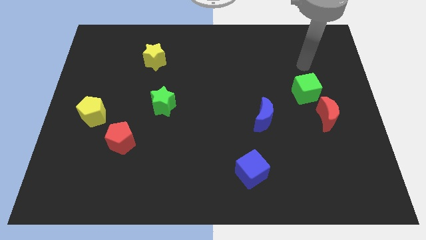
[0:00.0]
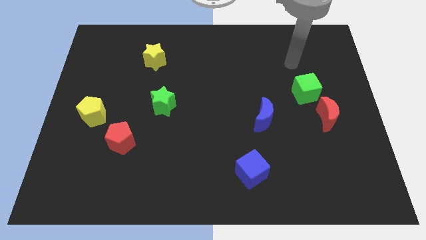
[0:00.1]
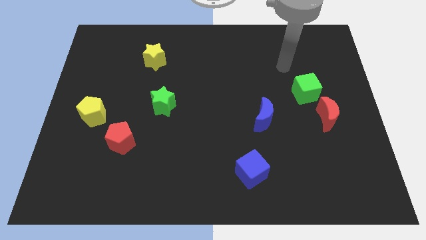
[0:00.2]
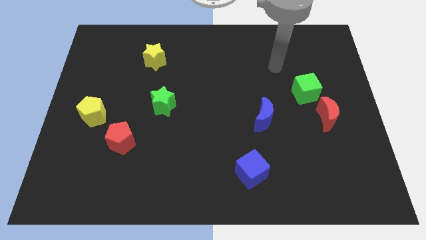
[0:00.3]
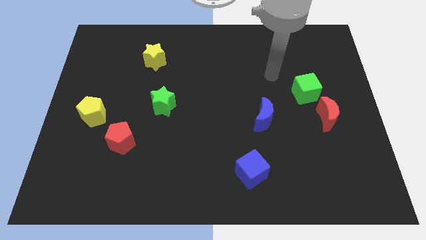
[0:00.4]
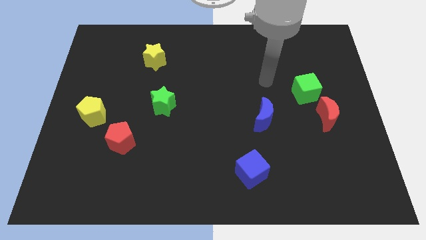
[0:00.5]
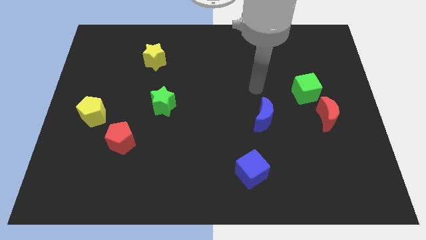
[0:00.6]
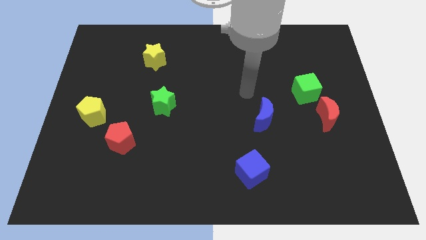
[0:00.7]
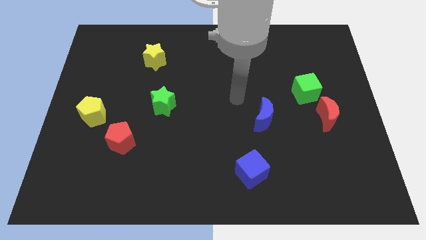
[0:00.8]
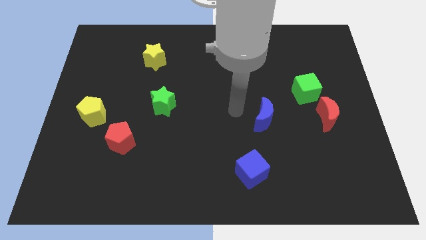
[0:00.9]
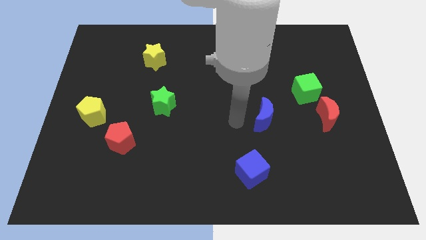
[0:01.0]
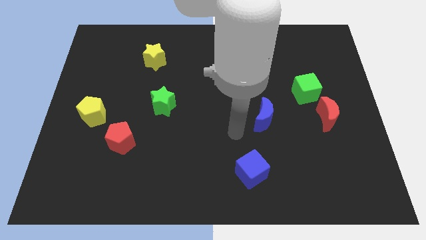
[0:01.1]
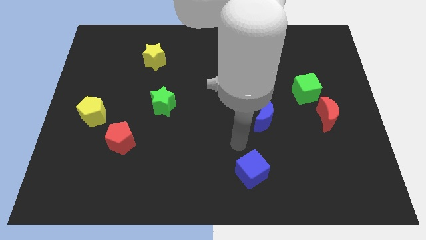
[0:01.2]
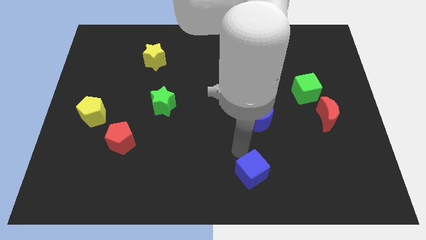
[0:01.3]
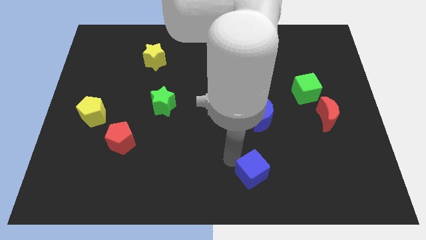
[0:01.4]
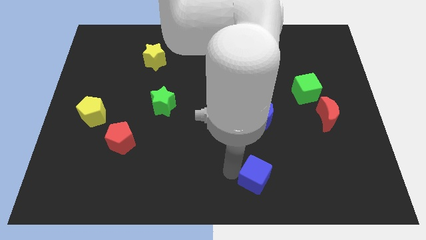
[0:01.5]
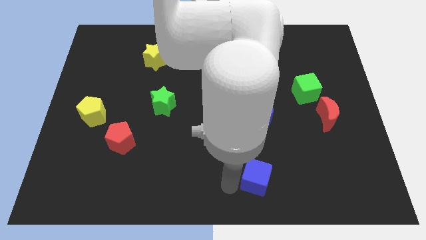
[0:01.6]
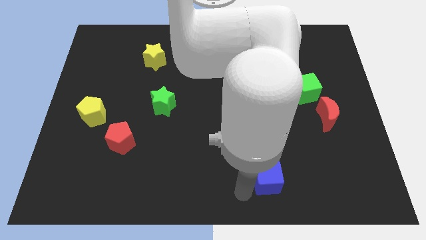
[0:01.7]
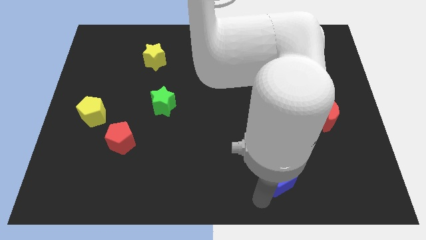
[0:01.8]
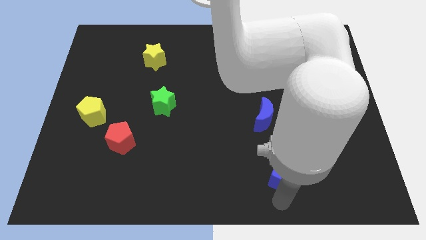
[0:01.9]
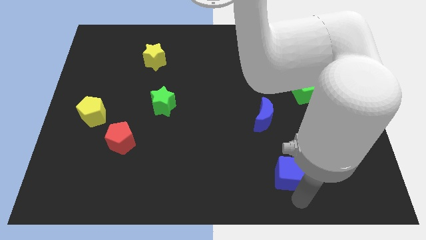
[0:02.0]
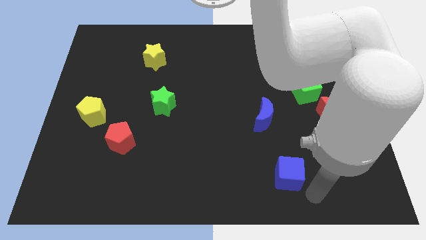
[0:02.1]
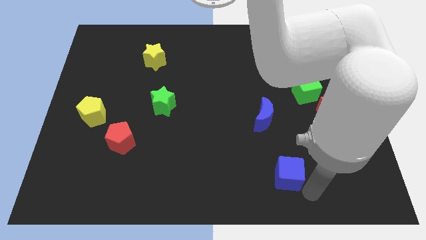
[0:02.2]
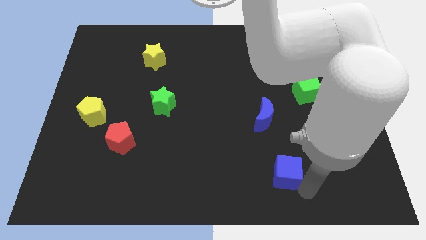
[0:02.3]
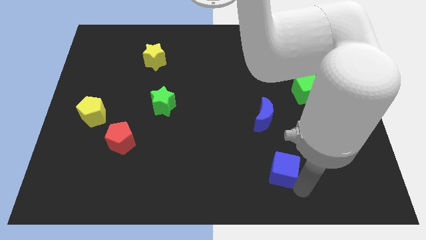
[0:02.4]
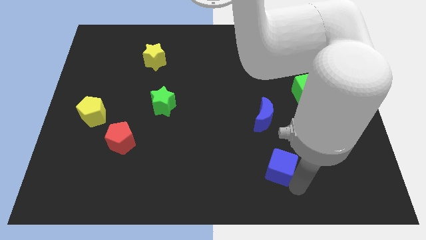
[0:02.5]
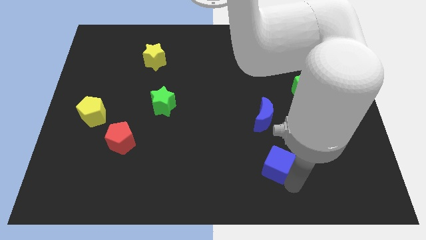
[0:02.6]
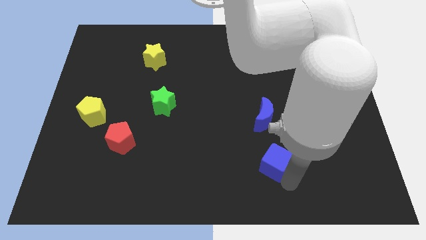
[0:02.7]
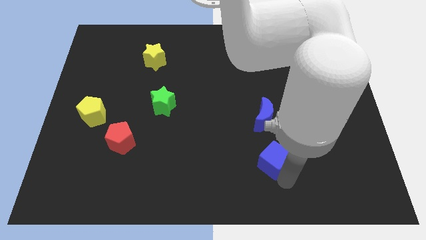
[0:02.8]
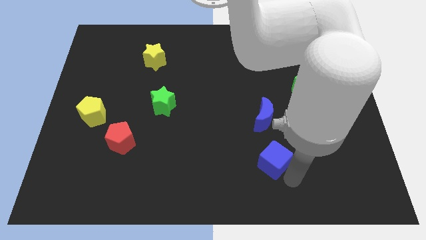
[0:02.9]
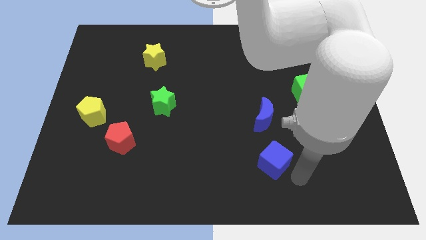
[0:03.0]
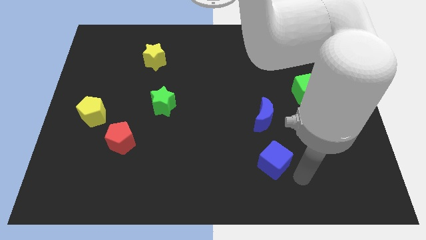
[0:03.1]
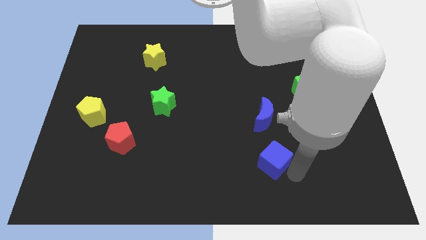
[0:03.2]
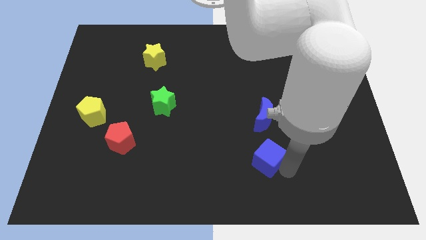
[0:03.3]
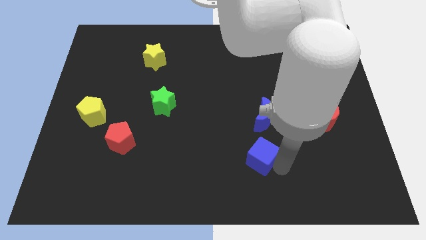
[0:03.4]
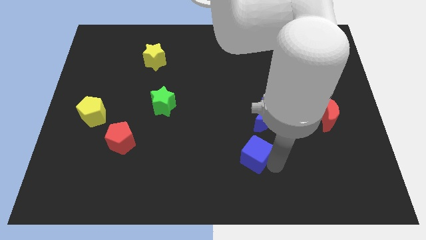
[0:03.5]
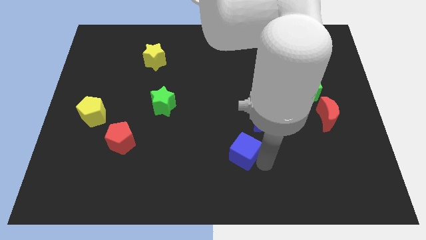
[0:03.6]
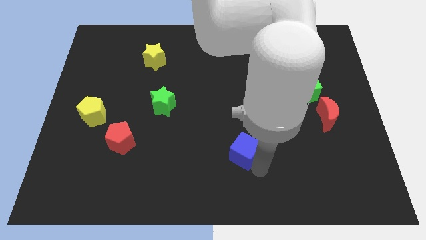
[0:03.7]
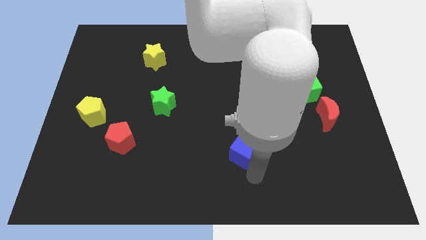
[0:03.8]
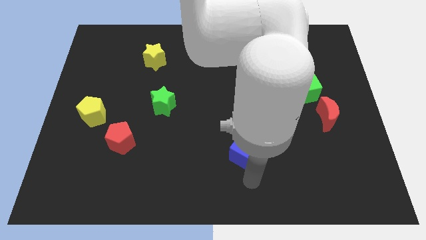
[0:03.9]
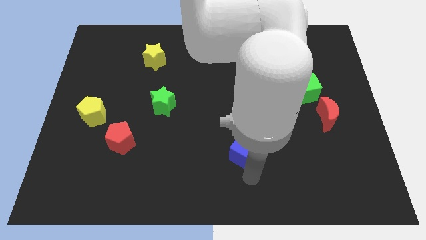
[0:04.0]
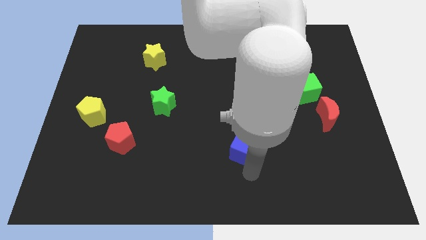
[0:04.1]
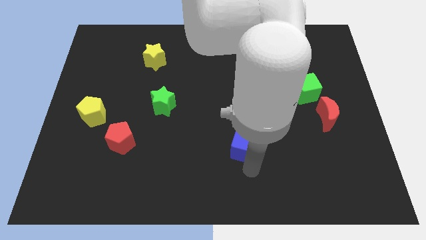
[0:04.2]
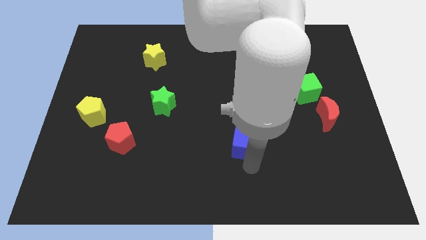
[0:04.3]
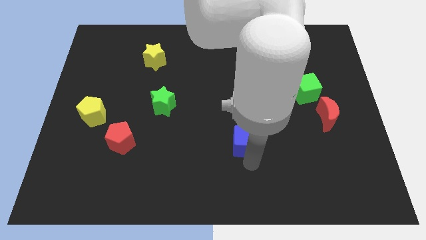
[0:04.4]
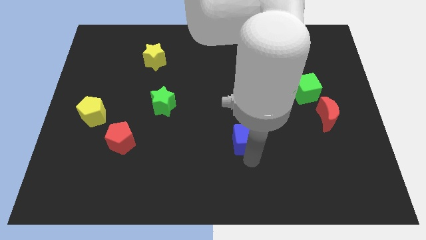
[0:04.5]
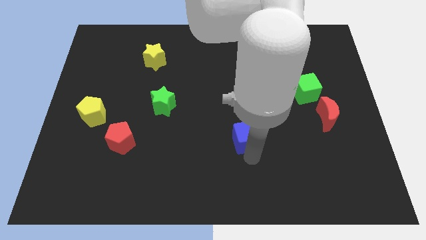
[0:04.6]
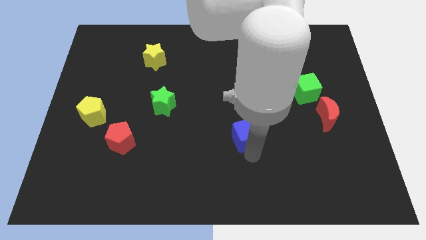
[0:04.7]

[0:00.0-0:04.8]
slide the blue cube to the center

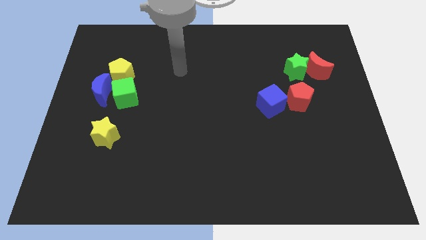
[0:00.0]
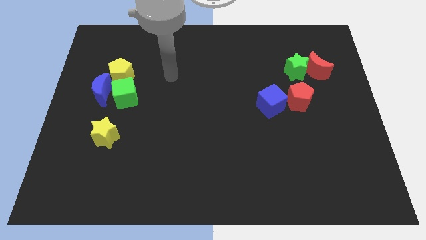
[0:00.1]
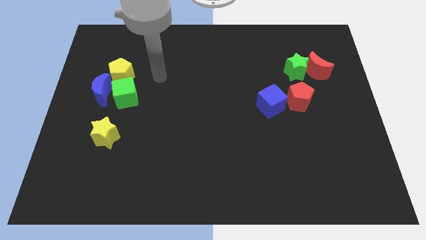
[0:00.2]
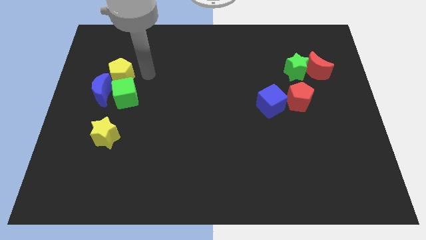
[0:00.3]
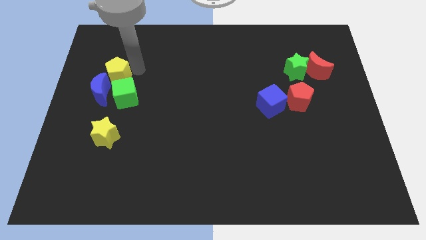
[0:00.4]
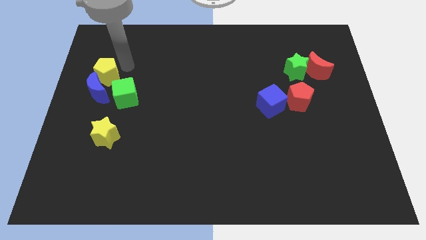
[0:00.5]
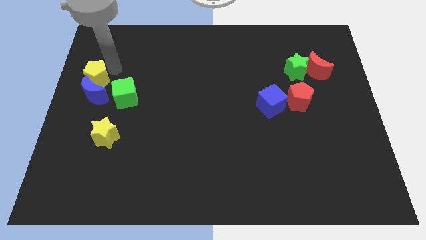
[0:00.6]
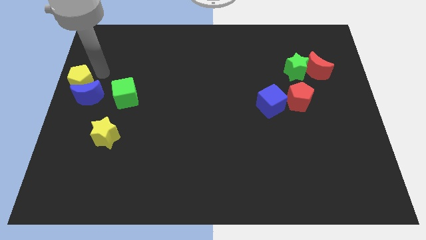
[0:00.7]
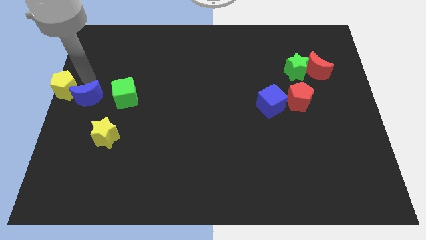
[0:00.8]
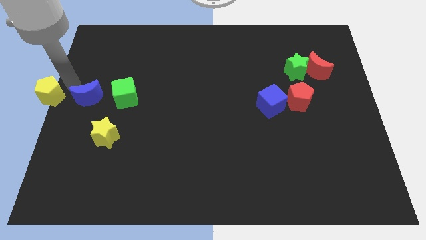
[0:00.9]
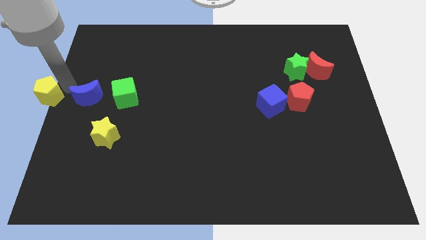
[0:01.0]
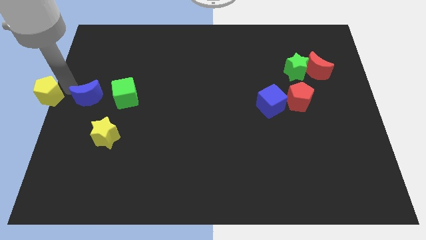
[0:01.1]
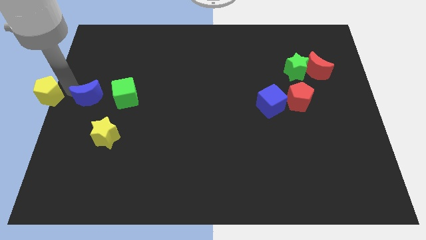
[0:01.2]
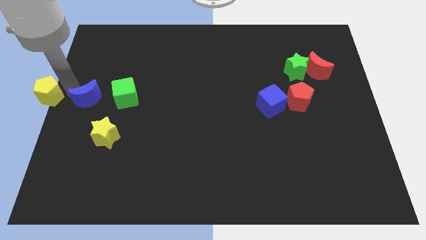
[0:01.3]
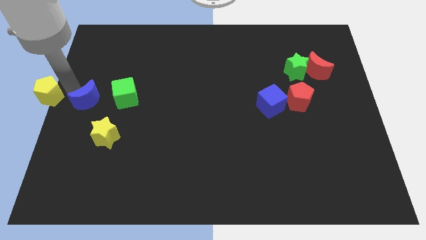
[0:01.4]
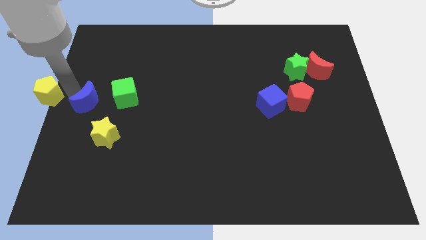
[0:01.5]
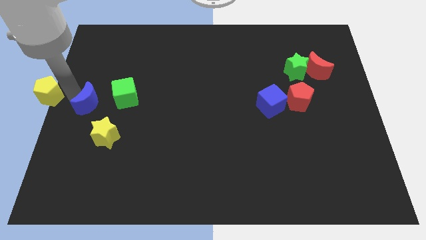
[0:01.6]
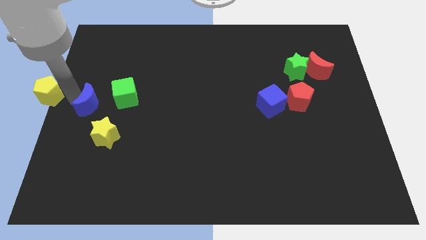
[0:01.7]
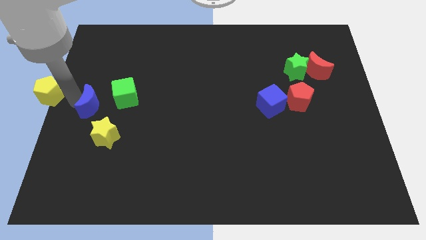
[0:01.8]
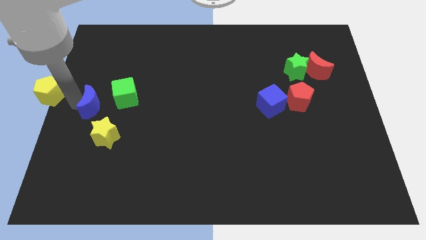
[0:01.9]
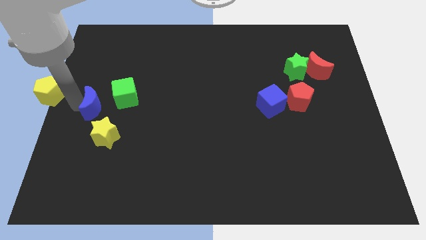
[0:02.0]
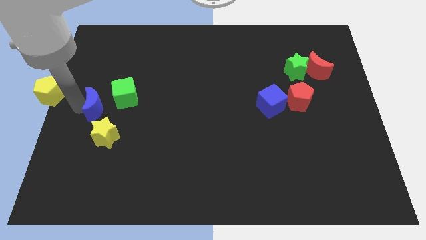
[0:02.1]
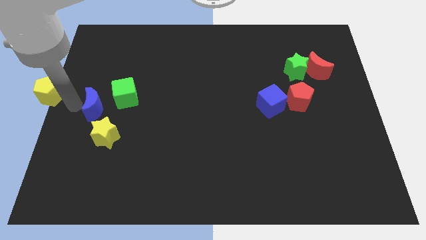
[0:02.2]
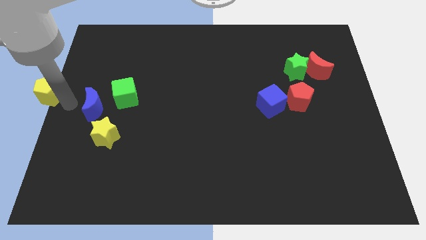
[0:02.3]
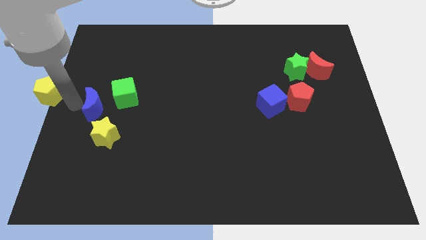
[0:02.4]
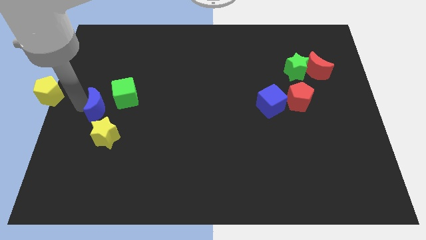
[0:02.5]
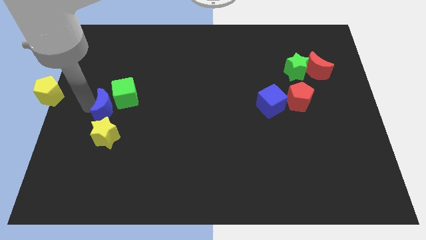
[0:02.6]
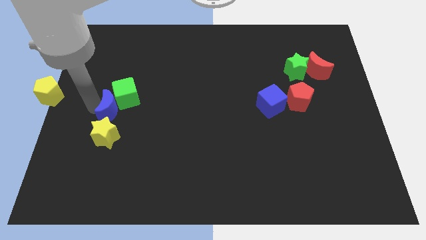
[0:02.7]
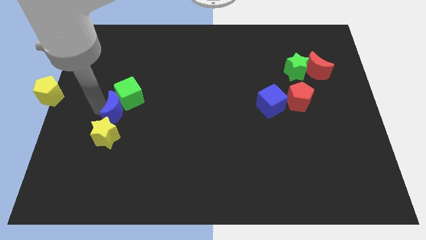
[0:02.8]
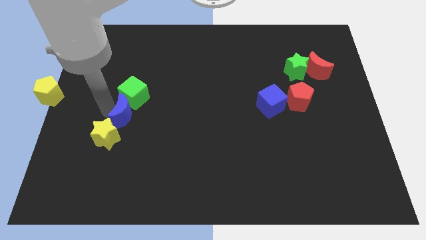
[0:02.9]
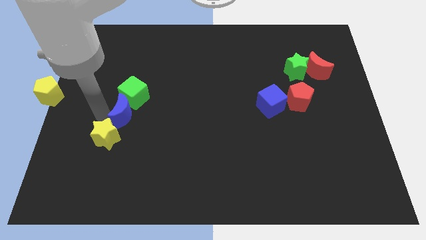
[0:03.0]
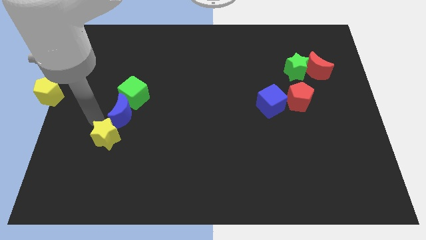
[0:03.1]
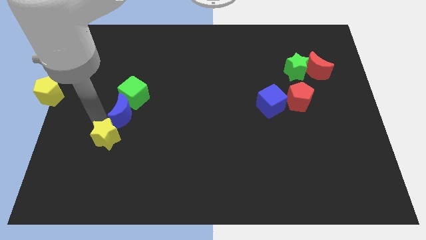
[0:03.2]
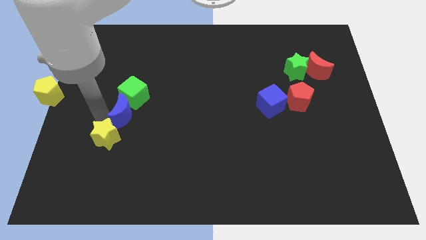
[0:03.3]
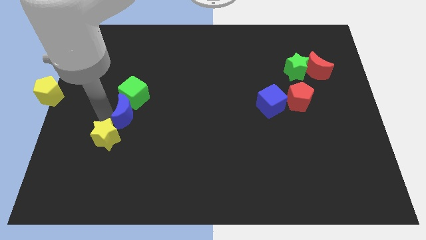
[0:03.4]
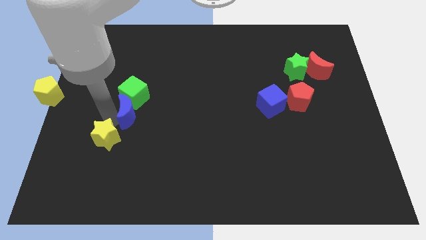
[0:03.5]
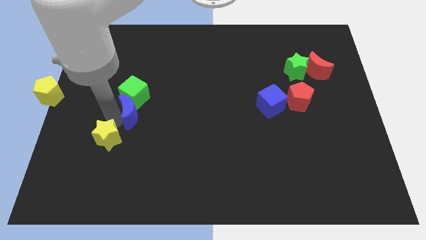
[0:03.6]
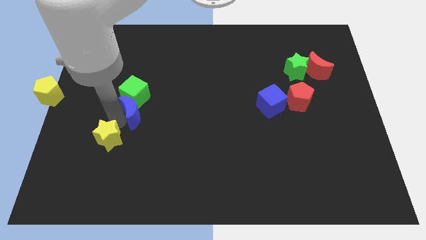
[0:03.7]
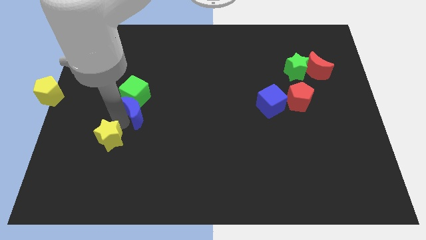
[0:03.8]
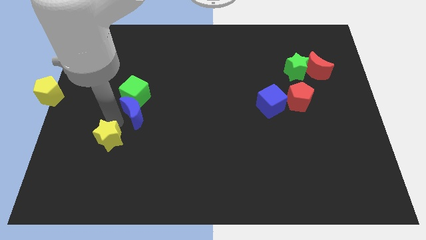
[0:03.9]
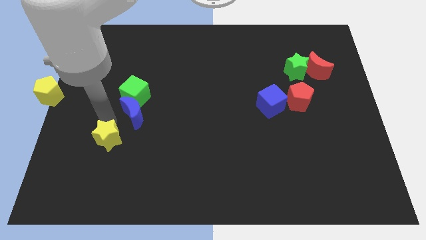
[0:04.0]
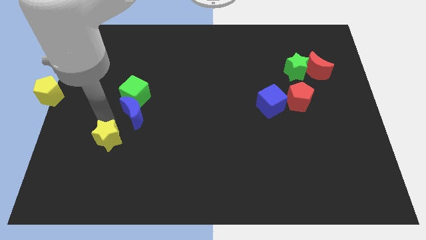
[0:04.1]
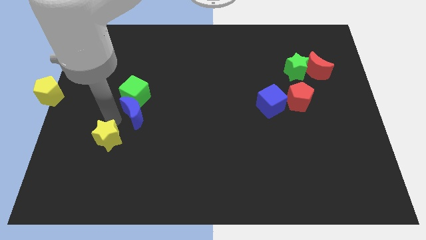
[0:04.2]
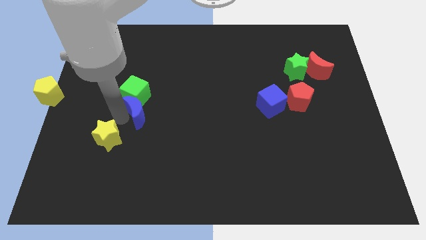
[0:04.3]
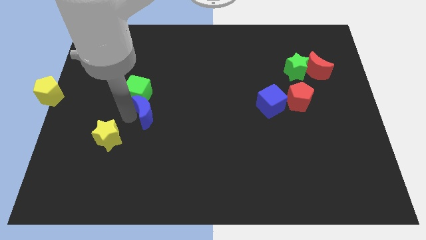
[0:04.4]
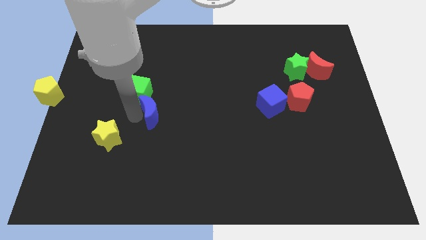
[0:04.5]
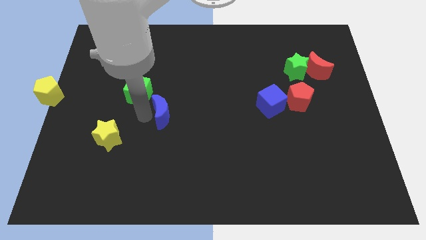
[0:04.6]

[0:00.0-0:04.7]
push the blue moon to the center of the board
